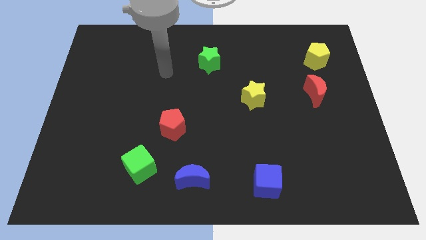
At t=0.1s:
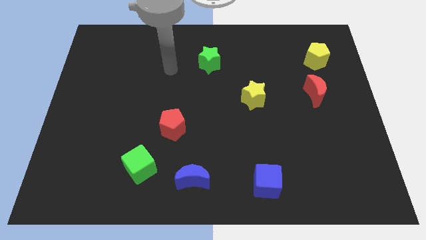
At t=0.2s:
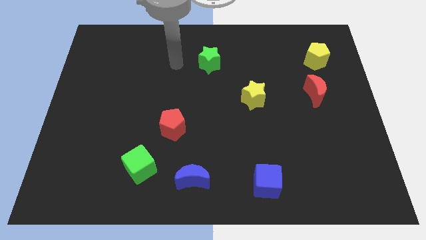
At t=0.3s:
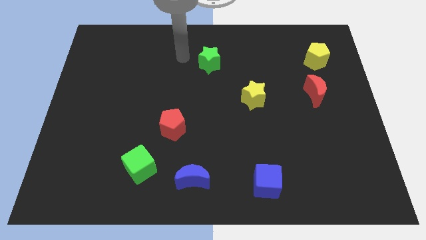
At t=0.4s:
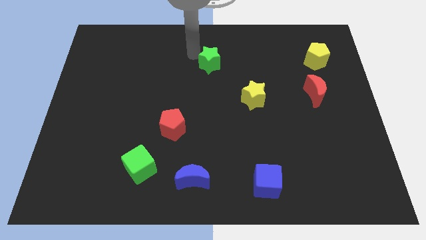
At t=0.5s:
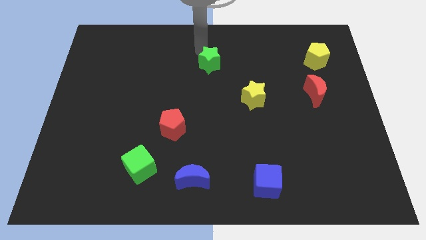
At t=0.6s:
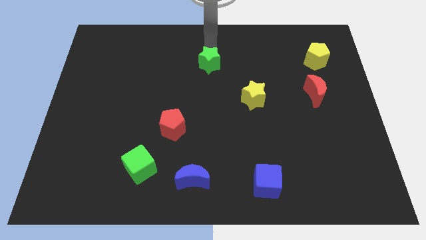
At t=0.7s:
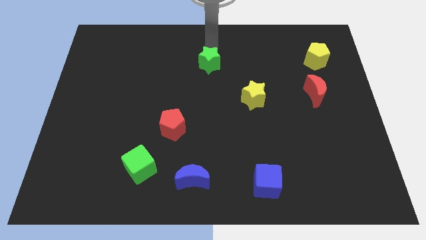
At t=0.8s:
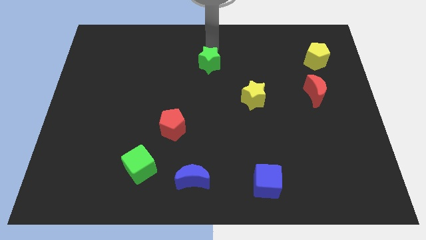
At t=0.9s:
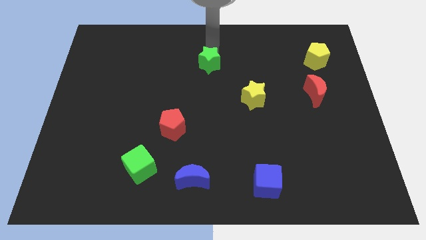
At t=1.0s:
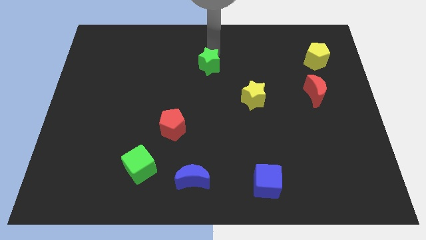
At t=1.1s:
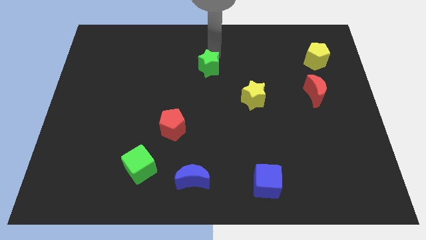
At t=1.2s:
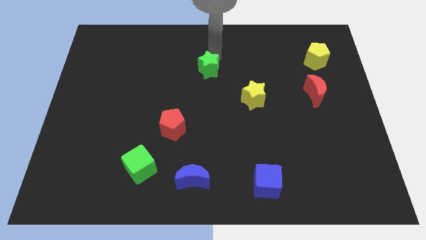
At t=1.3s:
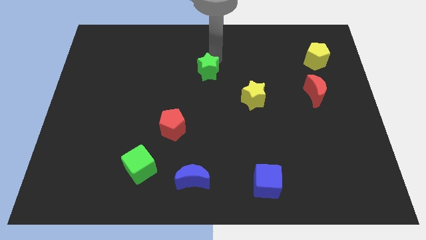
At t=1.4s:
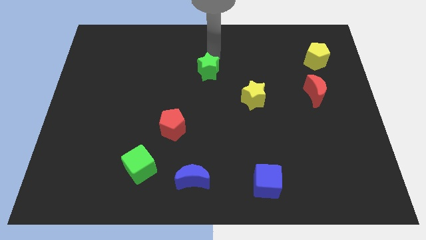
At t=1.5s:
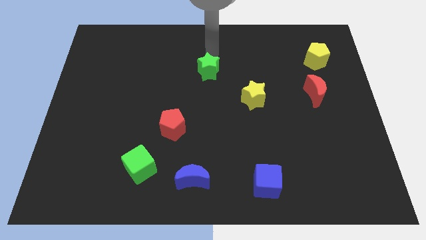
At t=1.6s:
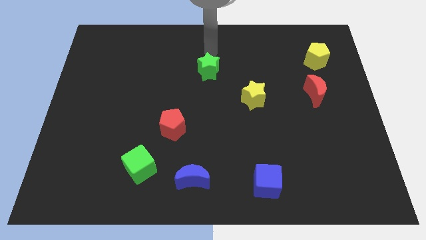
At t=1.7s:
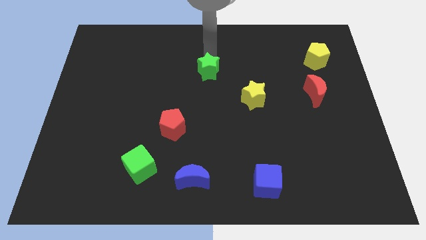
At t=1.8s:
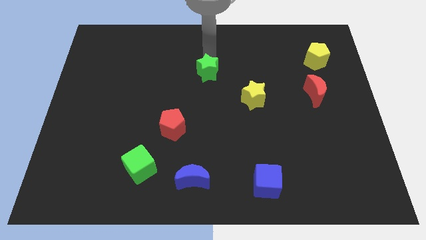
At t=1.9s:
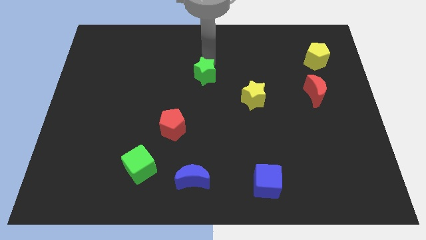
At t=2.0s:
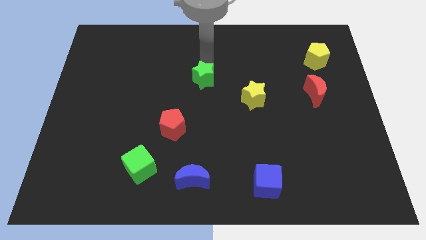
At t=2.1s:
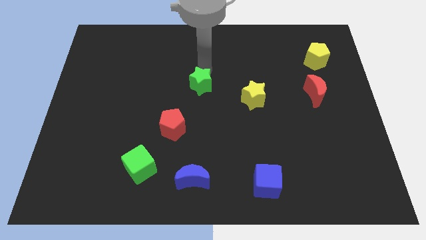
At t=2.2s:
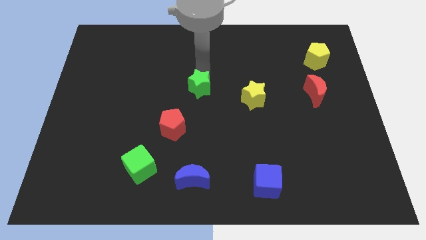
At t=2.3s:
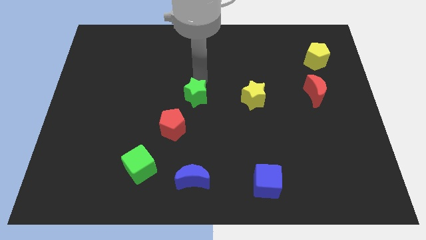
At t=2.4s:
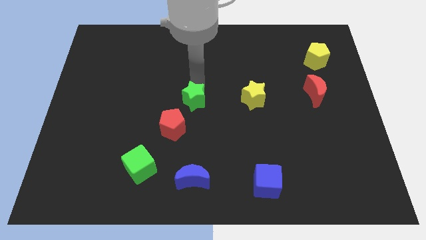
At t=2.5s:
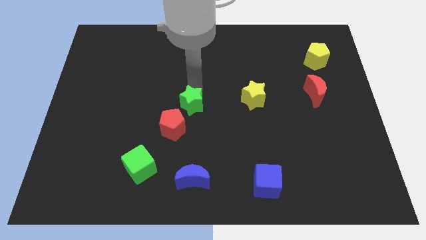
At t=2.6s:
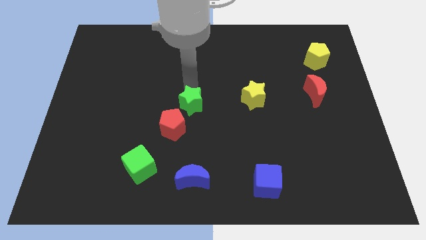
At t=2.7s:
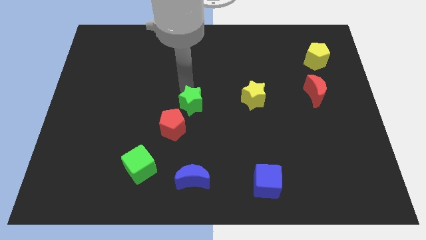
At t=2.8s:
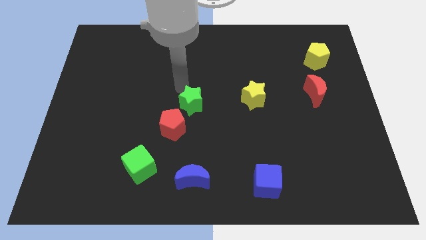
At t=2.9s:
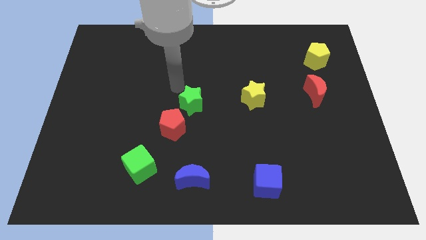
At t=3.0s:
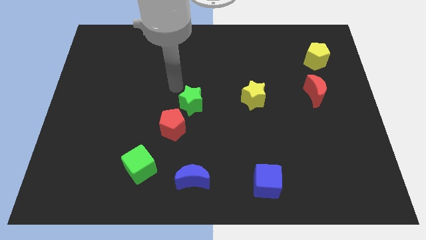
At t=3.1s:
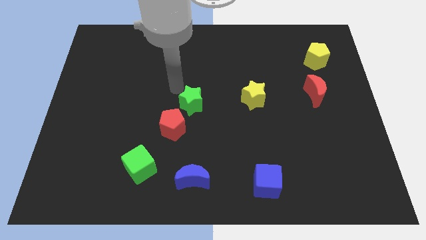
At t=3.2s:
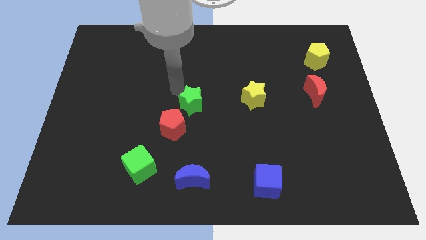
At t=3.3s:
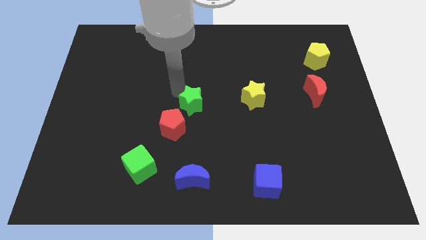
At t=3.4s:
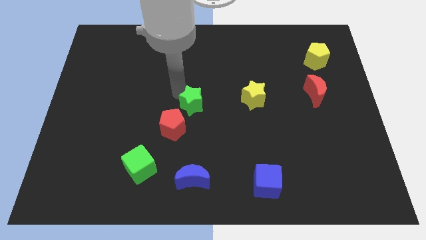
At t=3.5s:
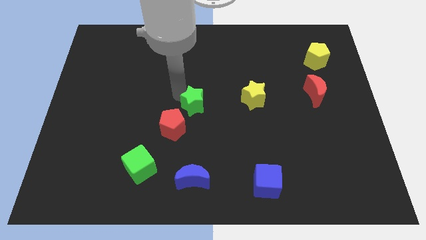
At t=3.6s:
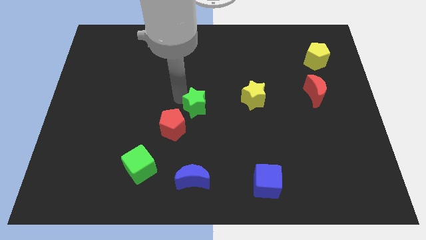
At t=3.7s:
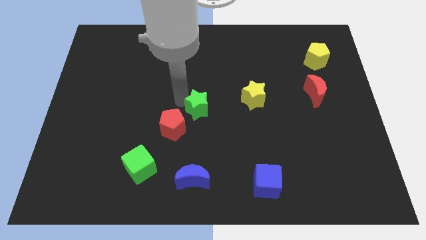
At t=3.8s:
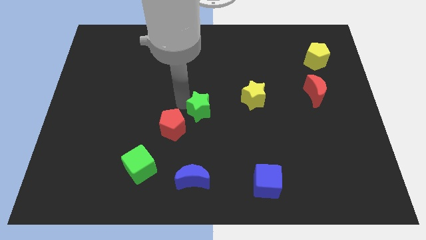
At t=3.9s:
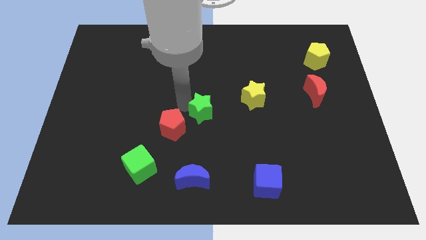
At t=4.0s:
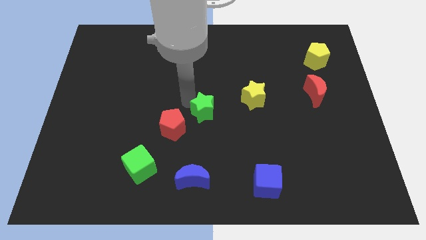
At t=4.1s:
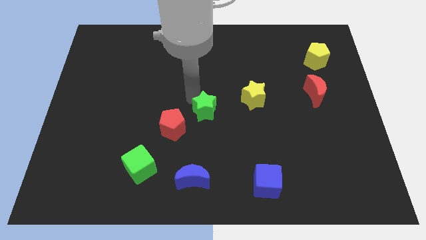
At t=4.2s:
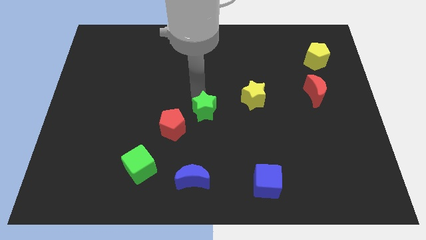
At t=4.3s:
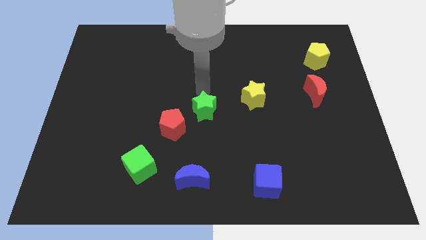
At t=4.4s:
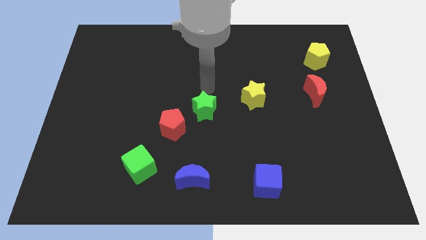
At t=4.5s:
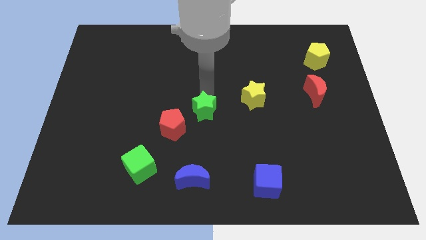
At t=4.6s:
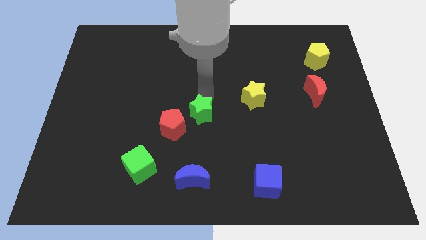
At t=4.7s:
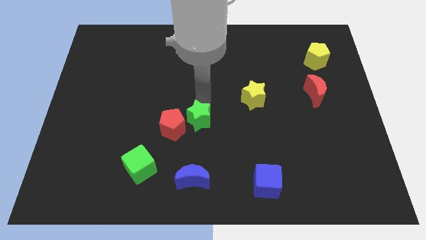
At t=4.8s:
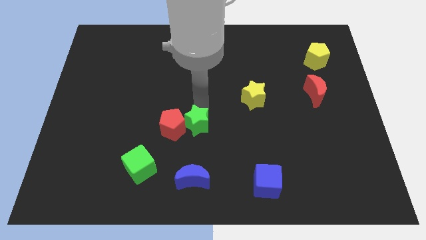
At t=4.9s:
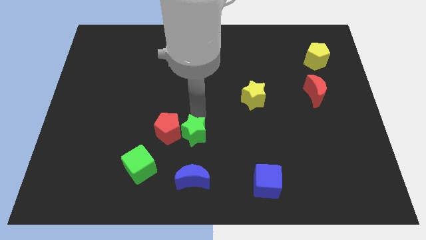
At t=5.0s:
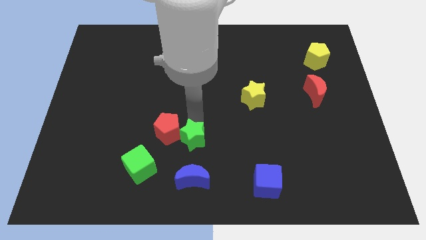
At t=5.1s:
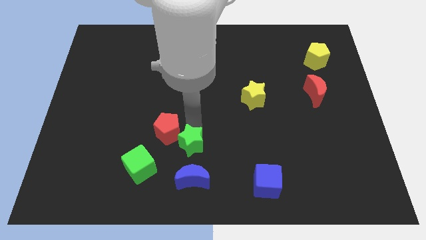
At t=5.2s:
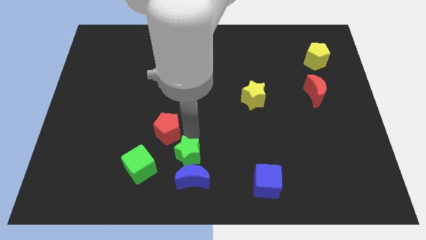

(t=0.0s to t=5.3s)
put the green star next to the blue moon

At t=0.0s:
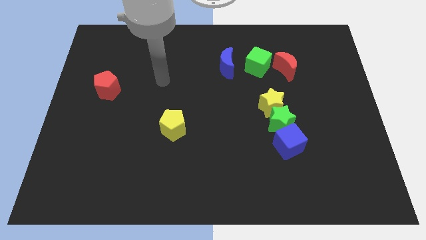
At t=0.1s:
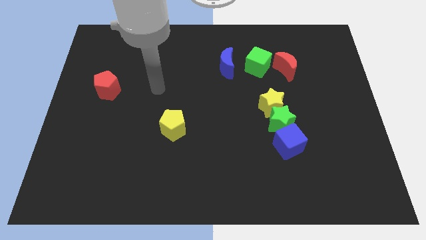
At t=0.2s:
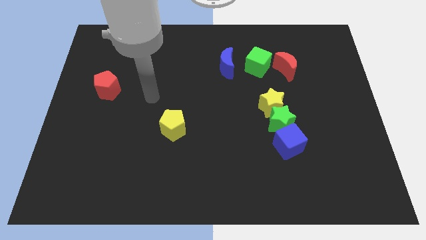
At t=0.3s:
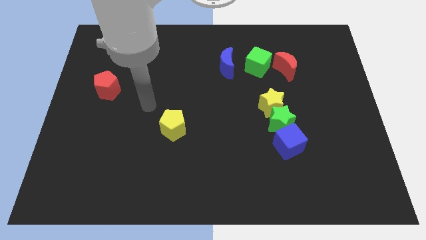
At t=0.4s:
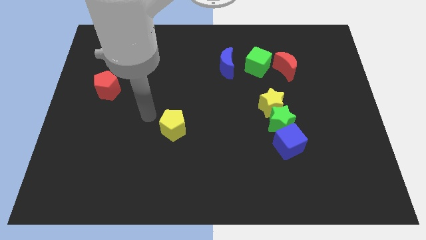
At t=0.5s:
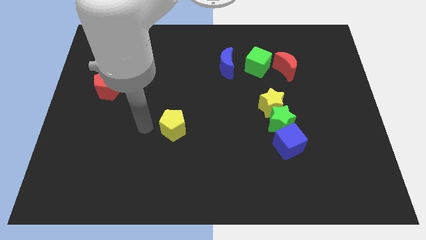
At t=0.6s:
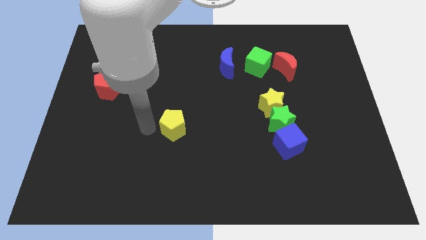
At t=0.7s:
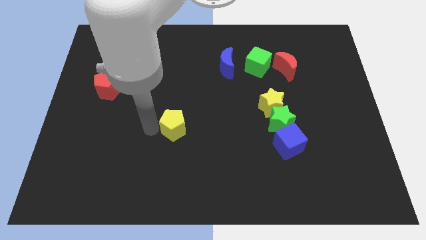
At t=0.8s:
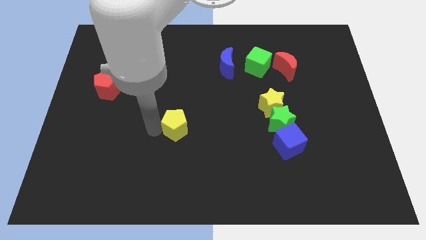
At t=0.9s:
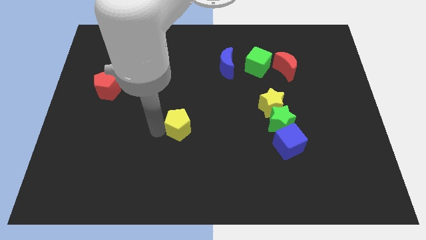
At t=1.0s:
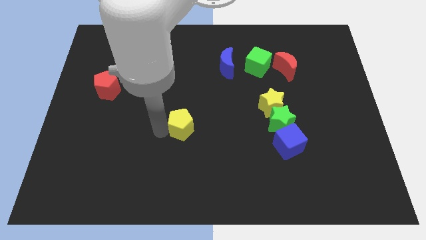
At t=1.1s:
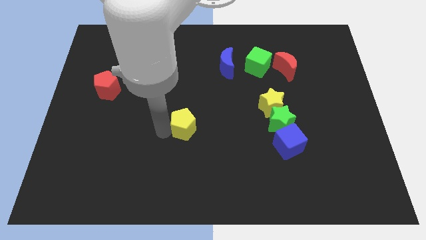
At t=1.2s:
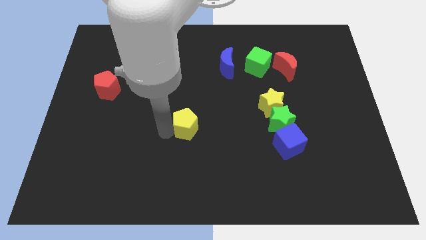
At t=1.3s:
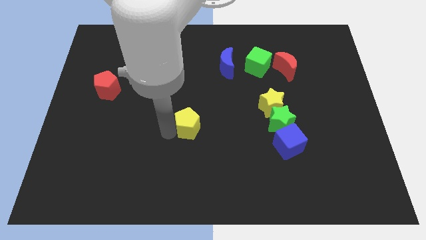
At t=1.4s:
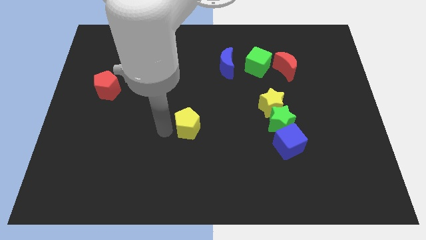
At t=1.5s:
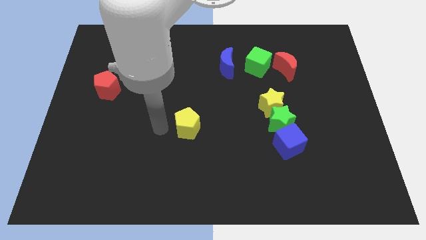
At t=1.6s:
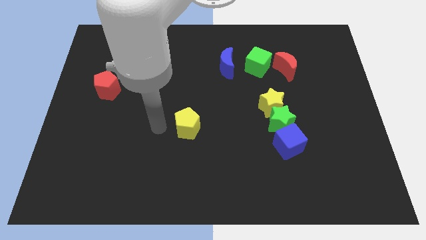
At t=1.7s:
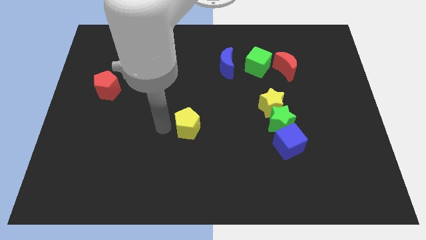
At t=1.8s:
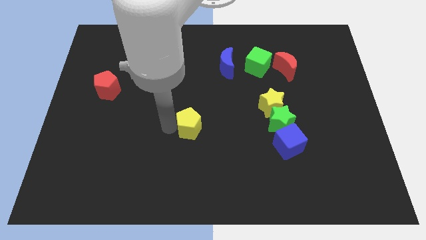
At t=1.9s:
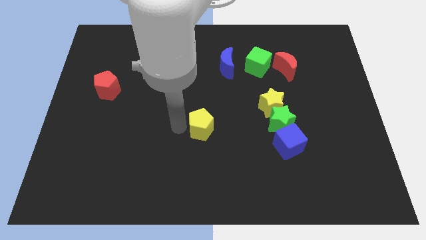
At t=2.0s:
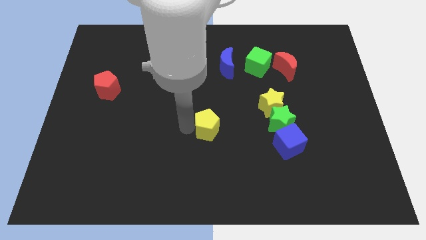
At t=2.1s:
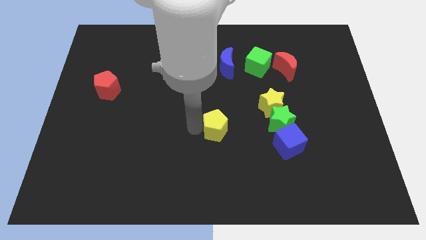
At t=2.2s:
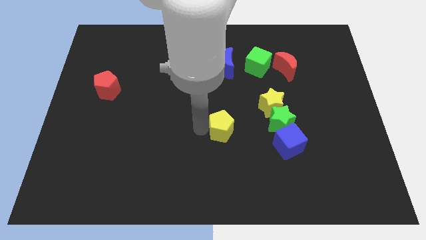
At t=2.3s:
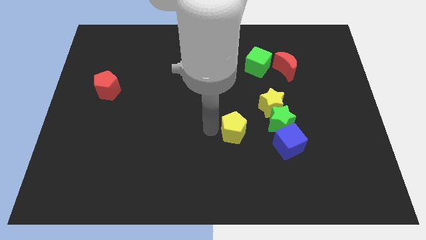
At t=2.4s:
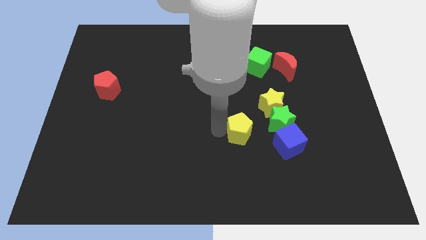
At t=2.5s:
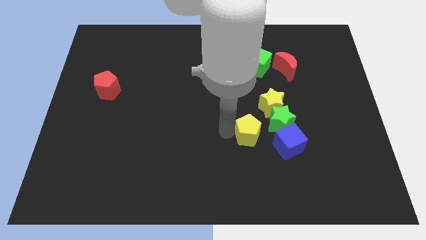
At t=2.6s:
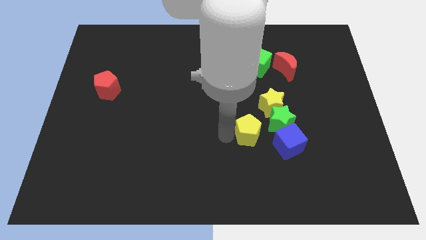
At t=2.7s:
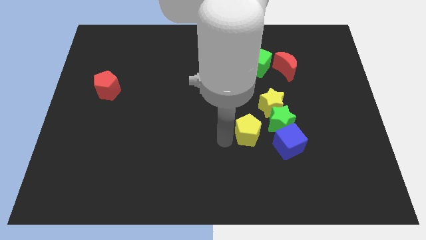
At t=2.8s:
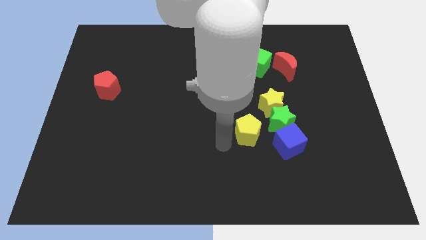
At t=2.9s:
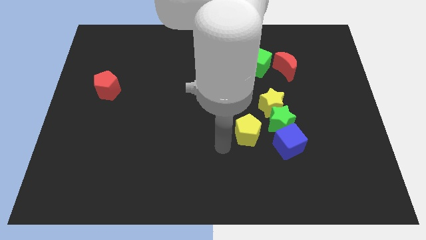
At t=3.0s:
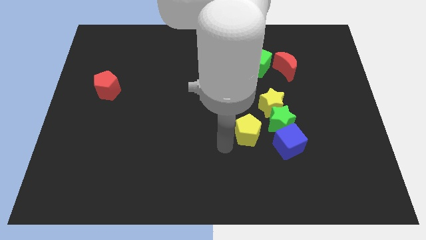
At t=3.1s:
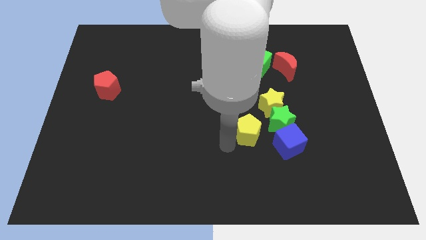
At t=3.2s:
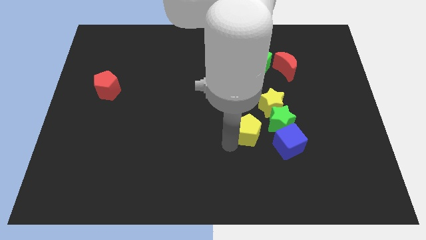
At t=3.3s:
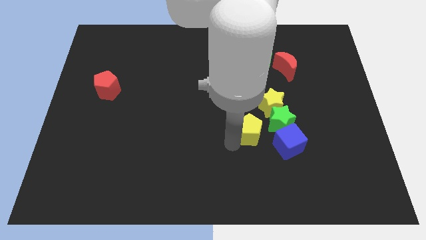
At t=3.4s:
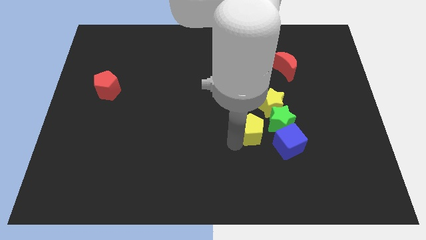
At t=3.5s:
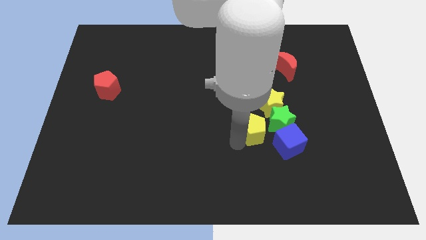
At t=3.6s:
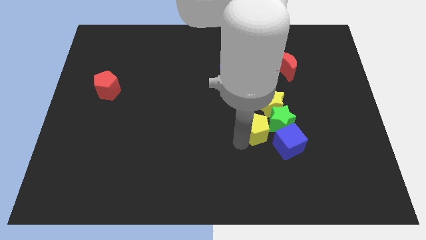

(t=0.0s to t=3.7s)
slide the yellow pentagon towards the green star
